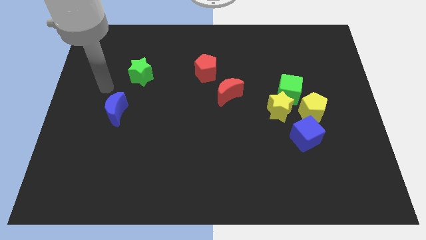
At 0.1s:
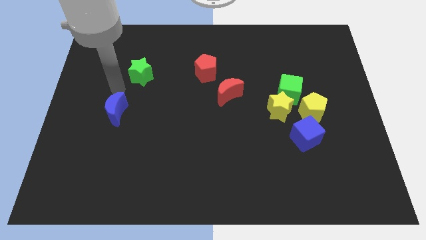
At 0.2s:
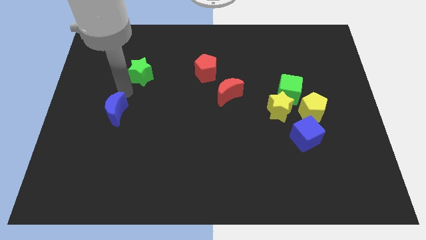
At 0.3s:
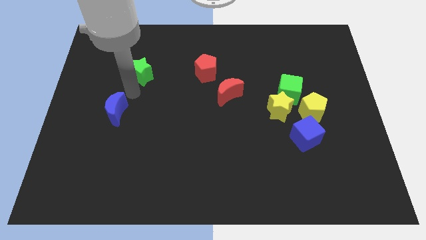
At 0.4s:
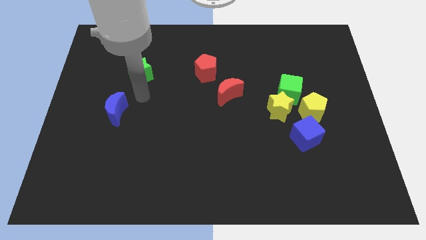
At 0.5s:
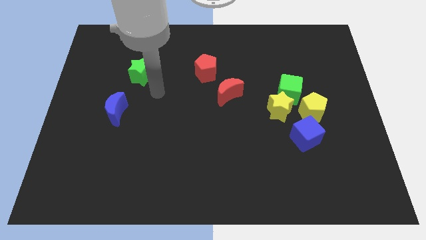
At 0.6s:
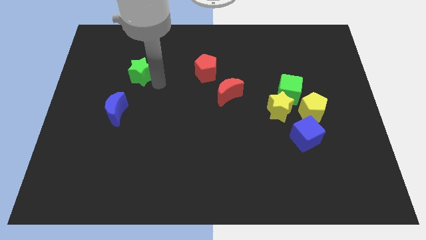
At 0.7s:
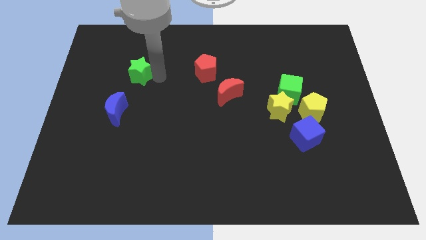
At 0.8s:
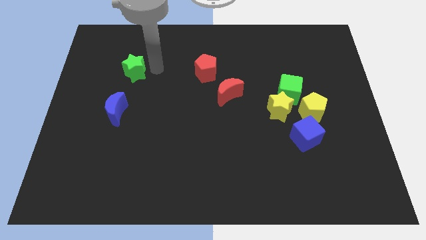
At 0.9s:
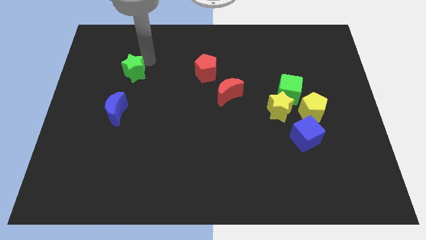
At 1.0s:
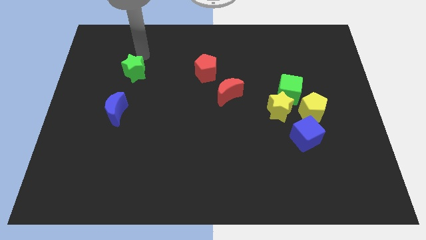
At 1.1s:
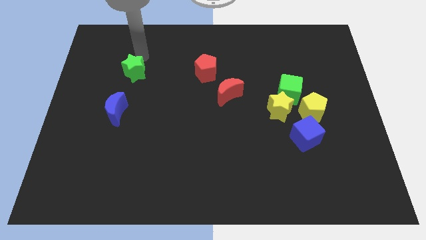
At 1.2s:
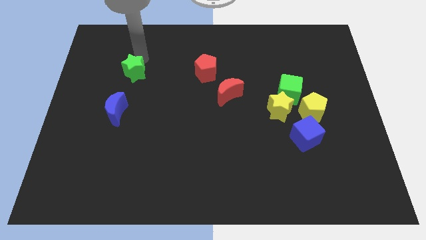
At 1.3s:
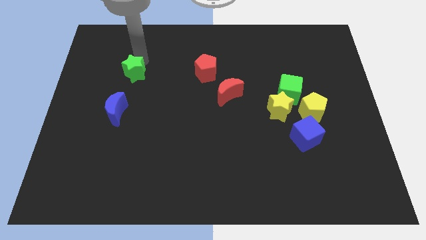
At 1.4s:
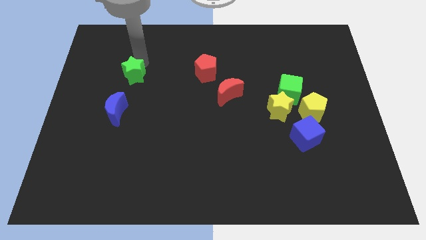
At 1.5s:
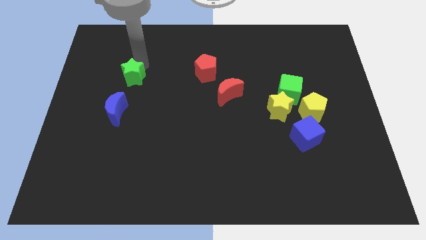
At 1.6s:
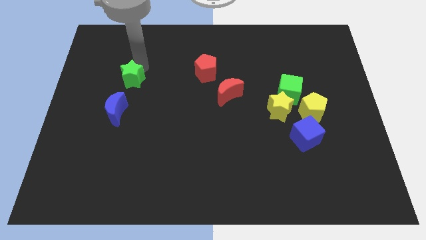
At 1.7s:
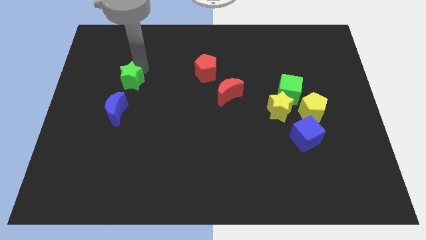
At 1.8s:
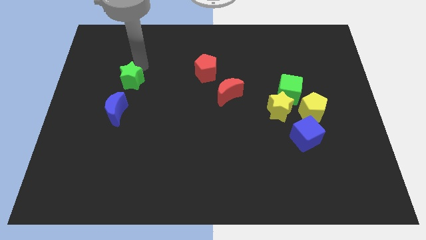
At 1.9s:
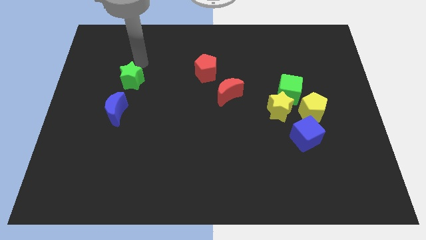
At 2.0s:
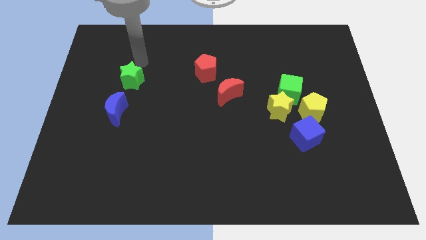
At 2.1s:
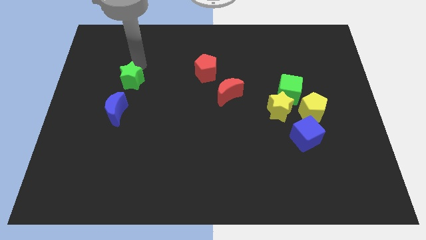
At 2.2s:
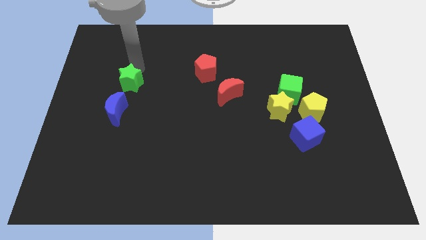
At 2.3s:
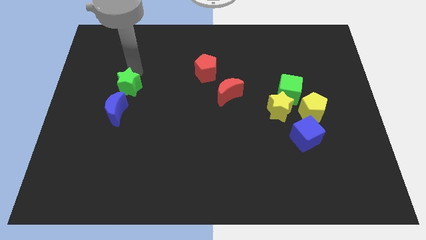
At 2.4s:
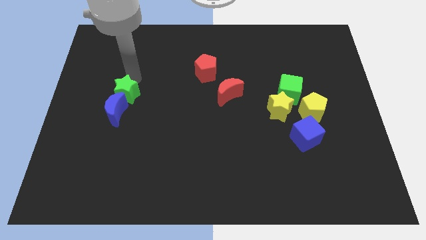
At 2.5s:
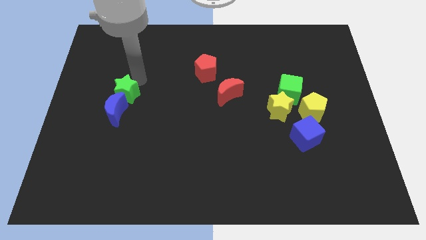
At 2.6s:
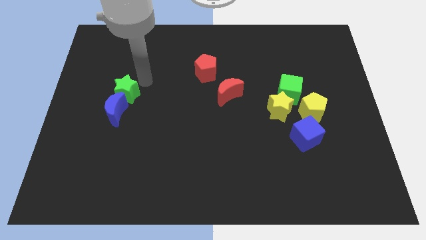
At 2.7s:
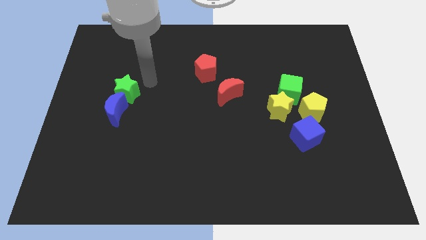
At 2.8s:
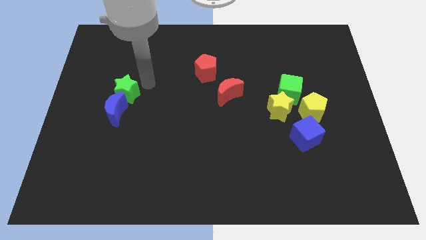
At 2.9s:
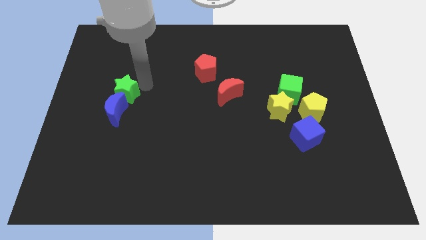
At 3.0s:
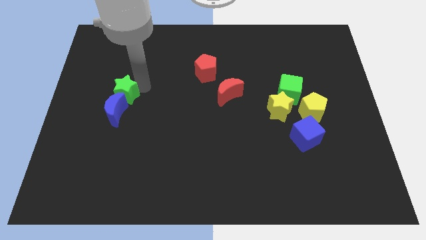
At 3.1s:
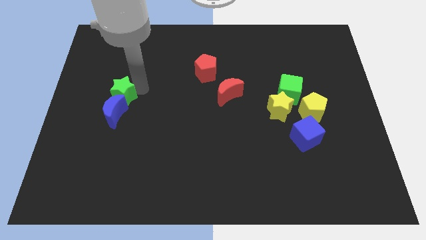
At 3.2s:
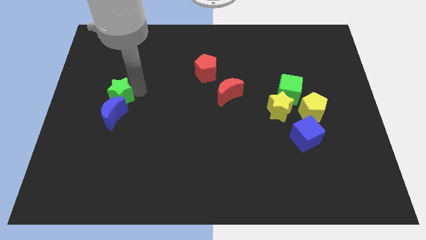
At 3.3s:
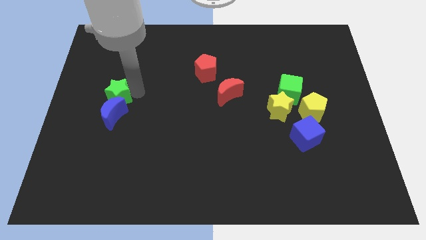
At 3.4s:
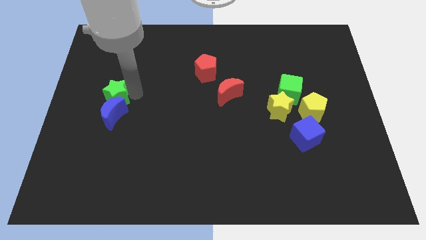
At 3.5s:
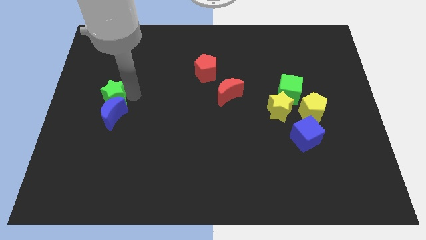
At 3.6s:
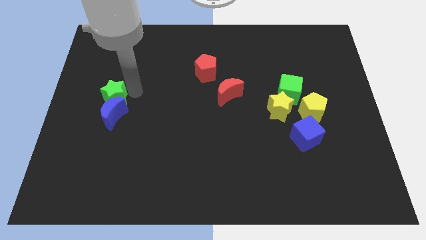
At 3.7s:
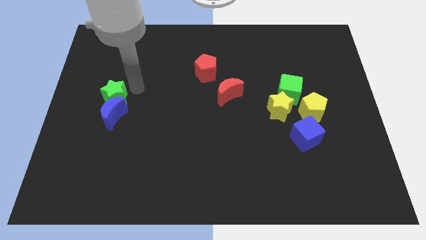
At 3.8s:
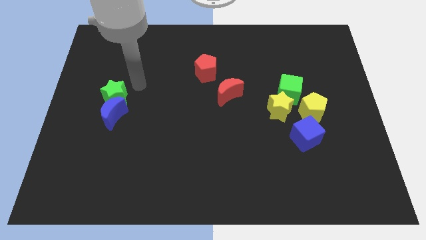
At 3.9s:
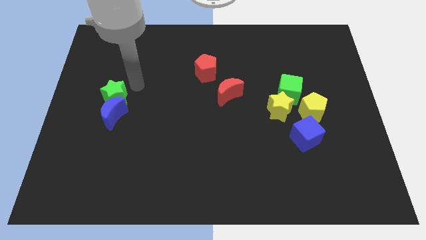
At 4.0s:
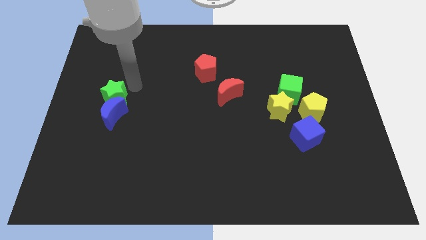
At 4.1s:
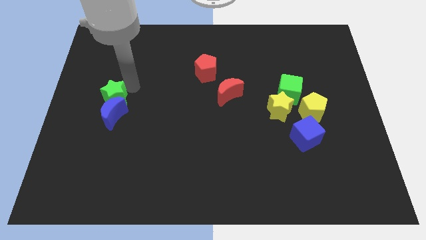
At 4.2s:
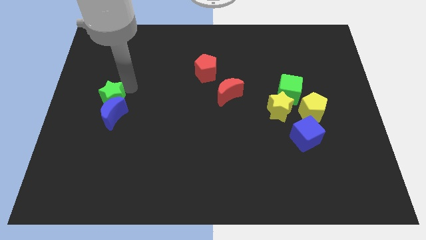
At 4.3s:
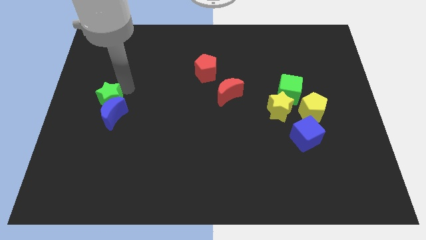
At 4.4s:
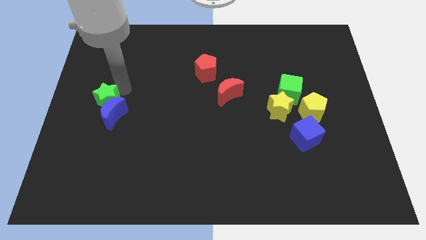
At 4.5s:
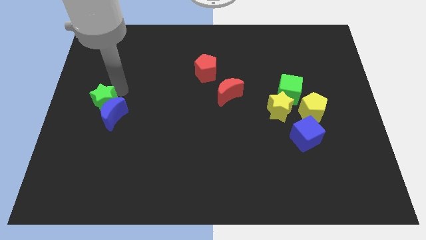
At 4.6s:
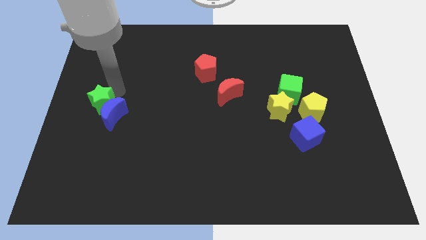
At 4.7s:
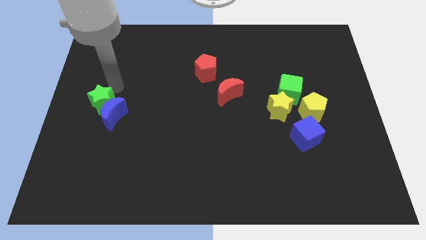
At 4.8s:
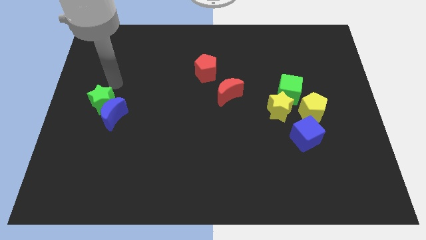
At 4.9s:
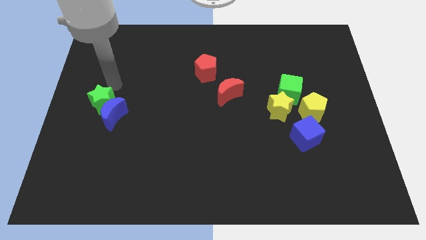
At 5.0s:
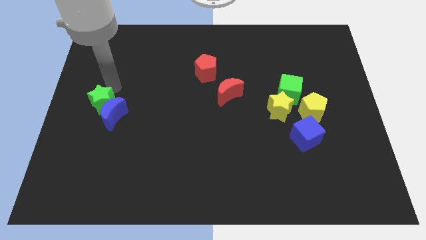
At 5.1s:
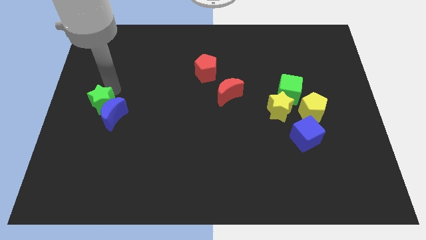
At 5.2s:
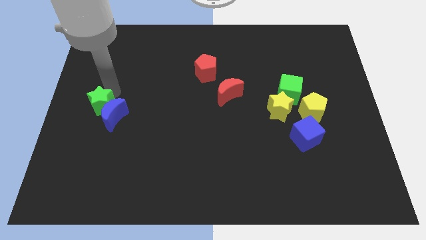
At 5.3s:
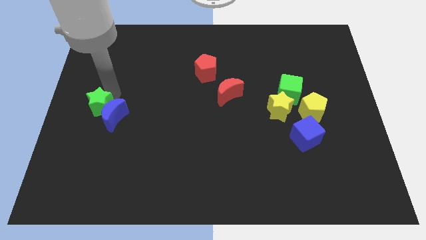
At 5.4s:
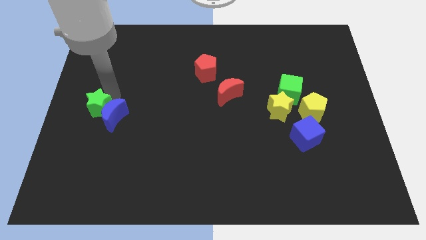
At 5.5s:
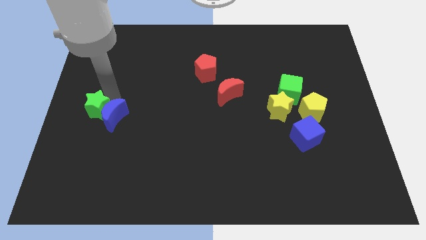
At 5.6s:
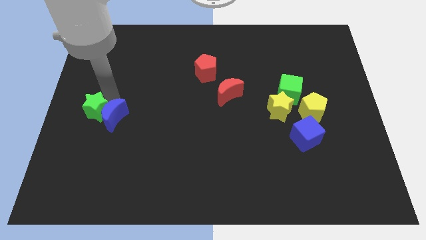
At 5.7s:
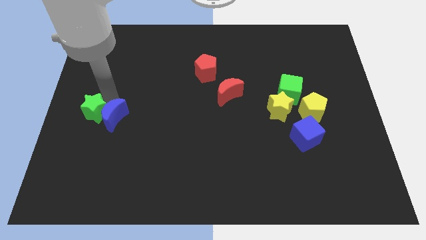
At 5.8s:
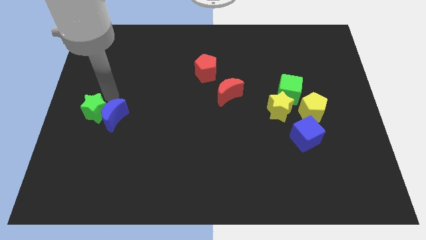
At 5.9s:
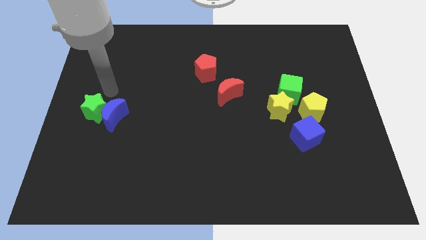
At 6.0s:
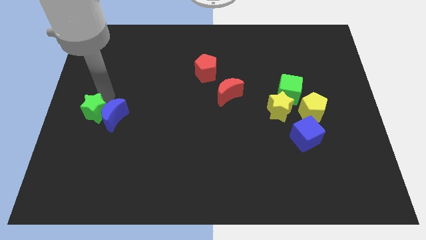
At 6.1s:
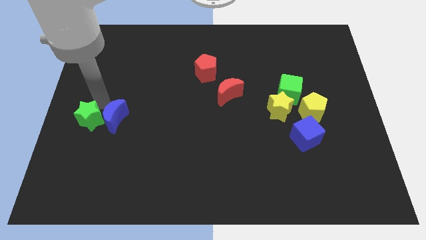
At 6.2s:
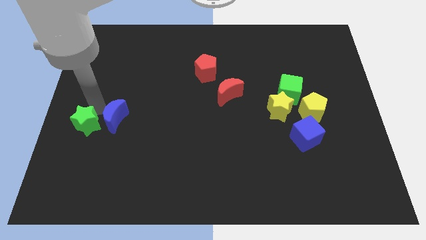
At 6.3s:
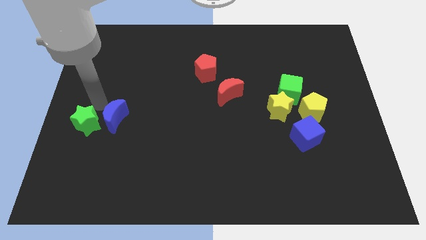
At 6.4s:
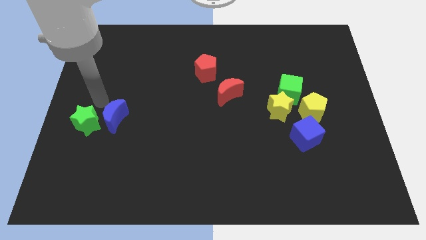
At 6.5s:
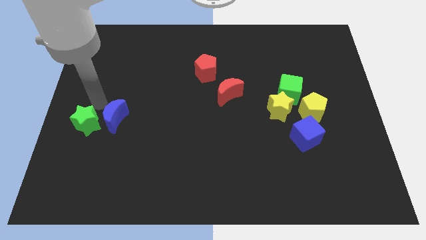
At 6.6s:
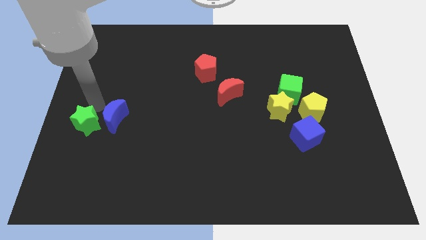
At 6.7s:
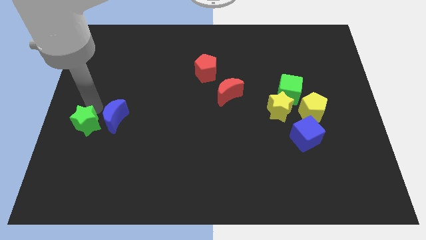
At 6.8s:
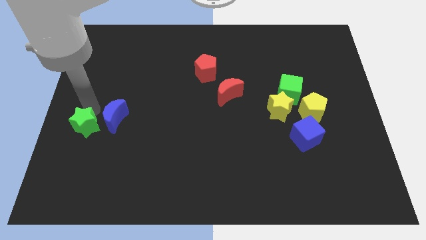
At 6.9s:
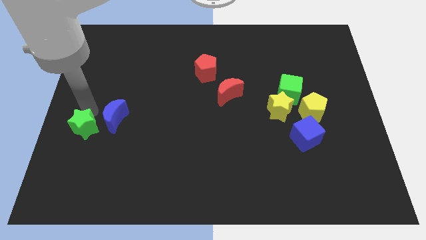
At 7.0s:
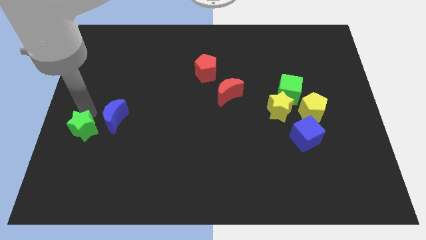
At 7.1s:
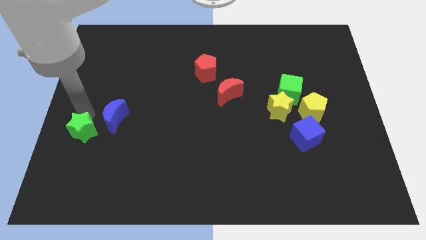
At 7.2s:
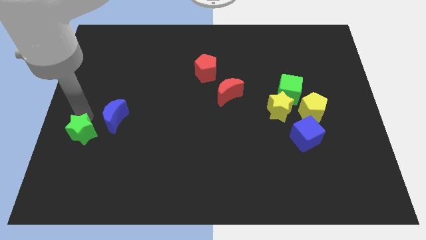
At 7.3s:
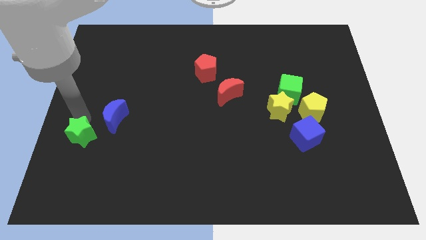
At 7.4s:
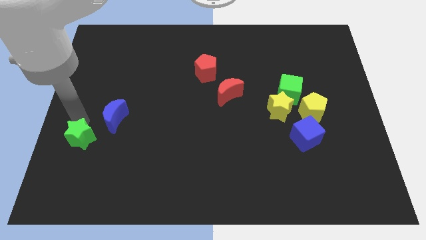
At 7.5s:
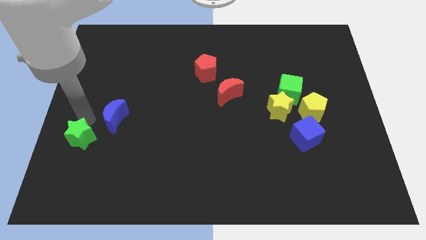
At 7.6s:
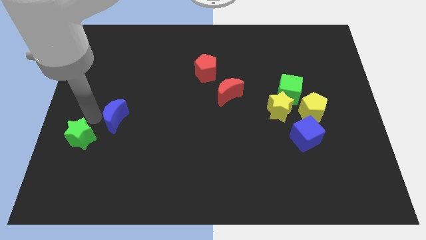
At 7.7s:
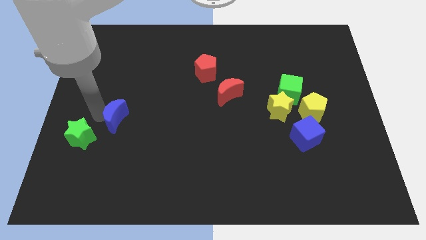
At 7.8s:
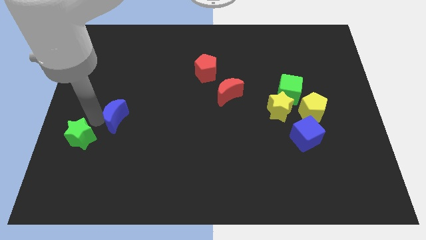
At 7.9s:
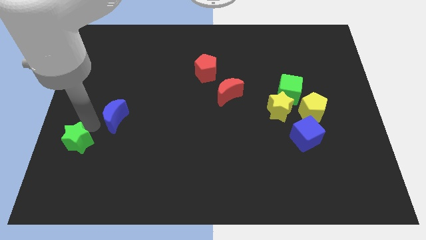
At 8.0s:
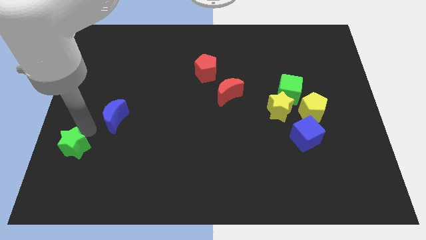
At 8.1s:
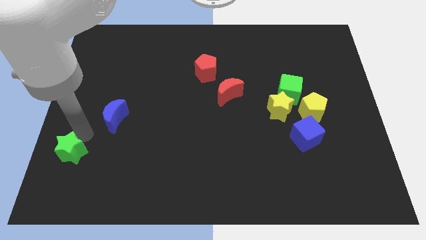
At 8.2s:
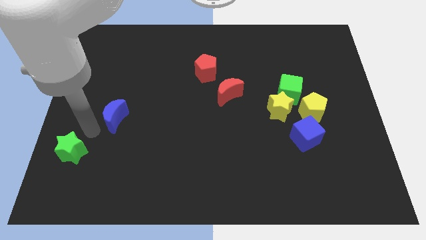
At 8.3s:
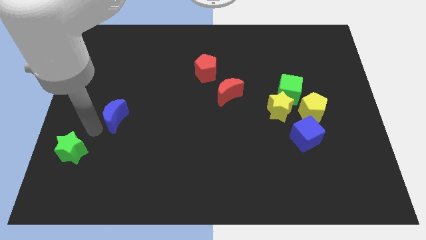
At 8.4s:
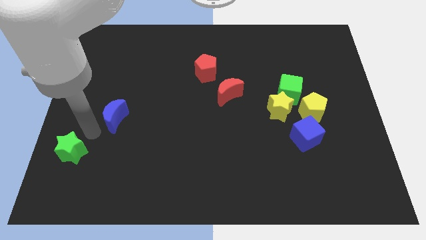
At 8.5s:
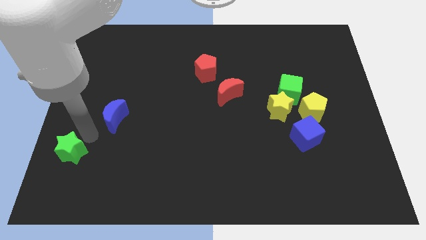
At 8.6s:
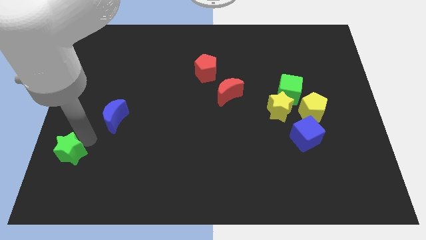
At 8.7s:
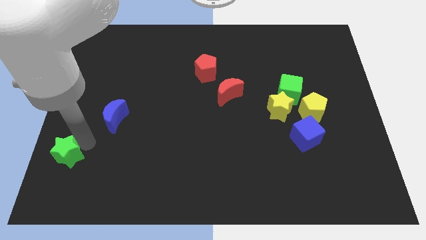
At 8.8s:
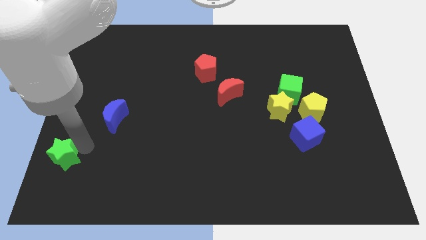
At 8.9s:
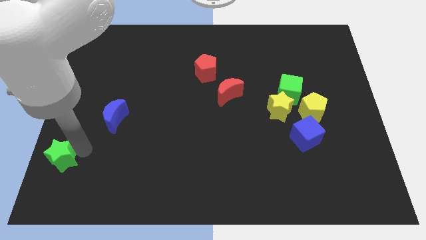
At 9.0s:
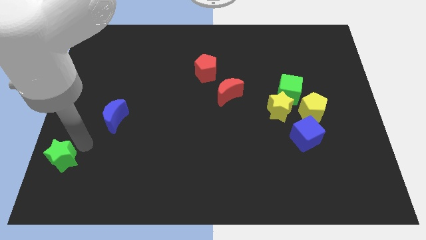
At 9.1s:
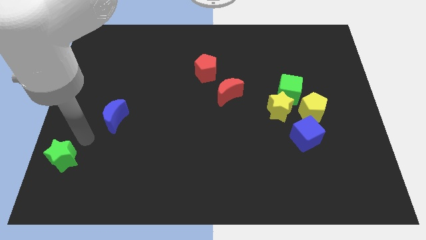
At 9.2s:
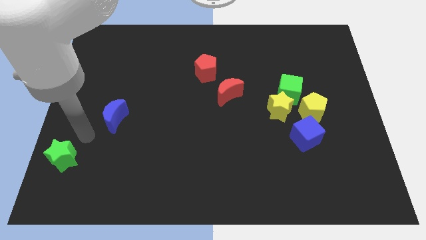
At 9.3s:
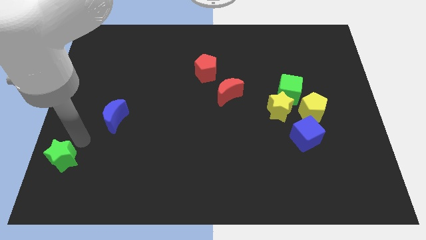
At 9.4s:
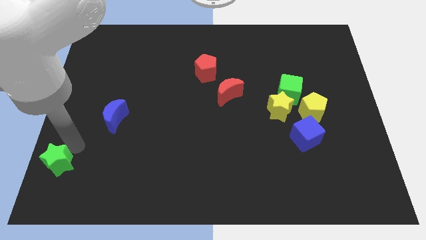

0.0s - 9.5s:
push the green star to the bottom left corner
